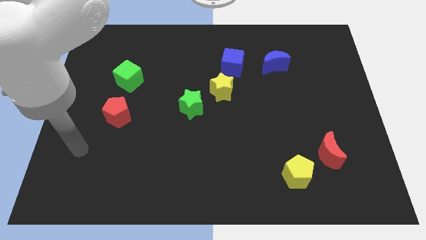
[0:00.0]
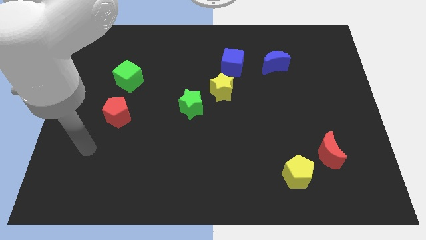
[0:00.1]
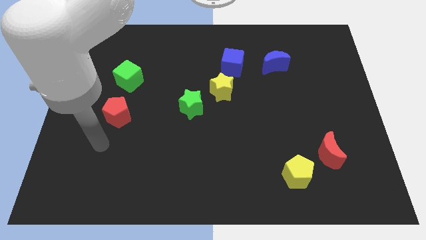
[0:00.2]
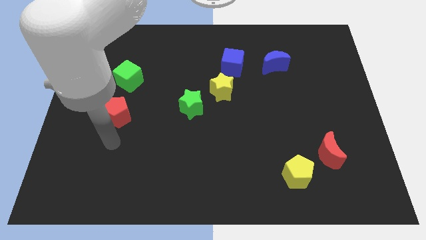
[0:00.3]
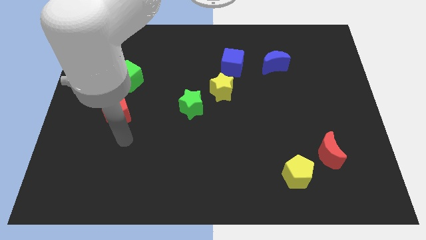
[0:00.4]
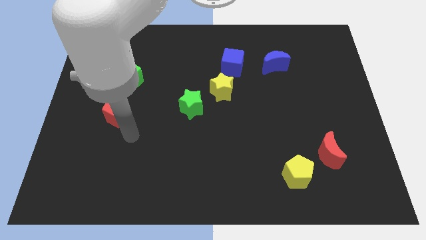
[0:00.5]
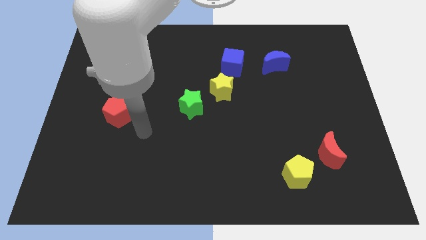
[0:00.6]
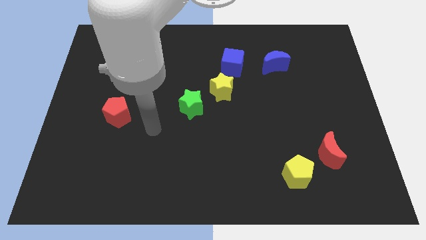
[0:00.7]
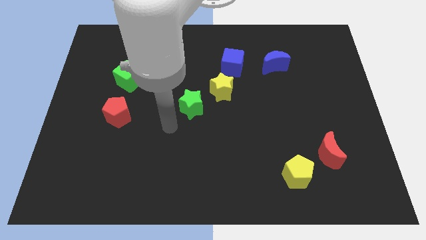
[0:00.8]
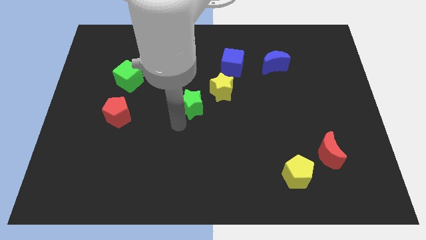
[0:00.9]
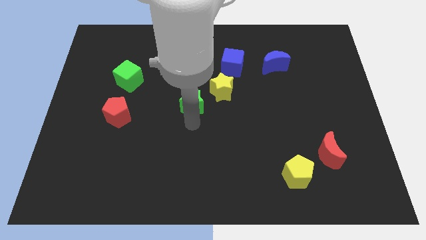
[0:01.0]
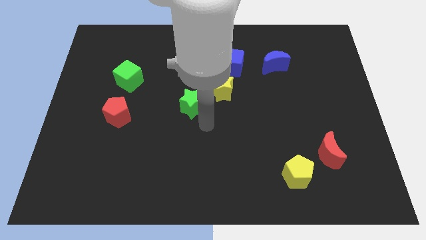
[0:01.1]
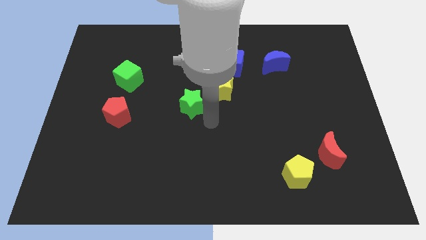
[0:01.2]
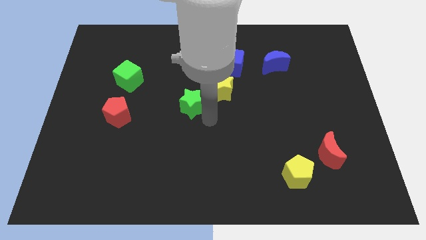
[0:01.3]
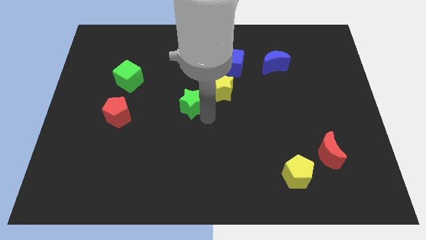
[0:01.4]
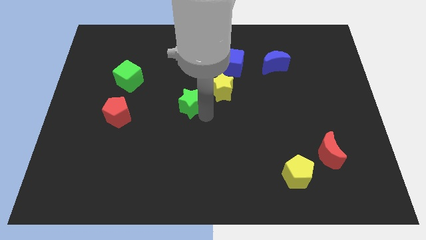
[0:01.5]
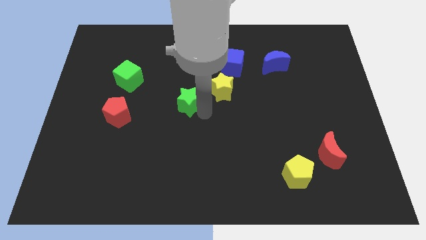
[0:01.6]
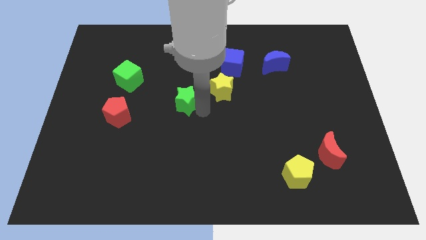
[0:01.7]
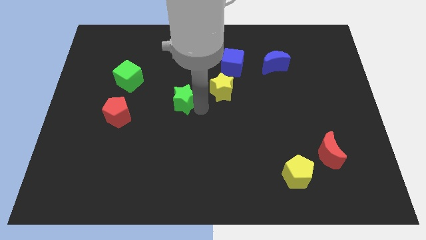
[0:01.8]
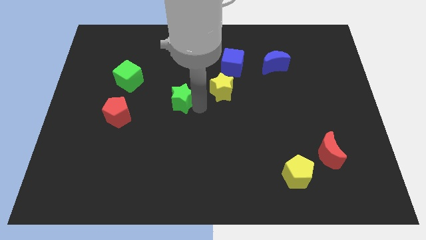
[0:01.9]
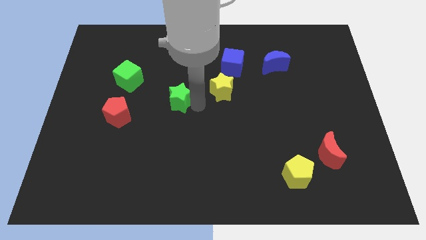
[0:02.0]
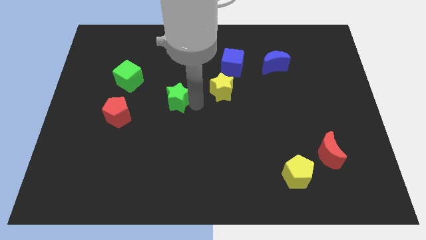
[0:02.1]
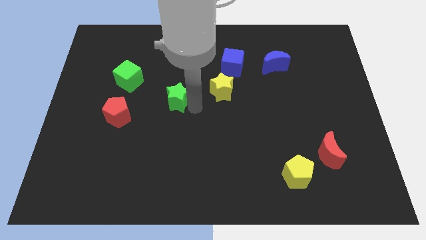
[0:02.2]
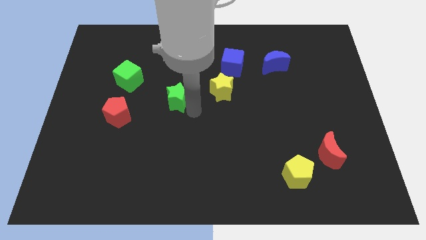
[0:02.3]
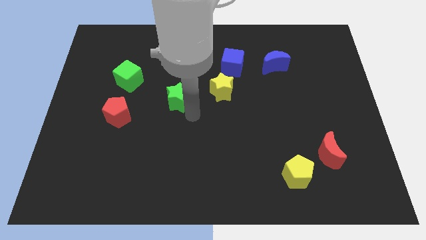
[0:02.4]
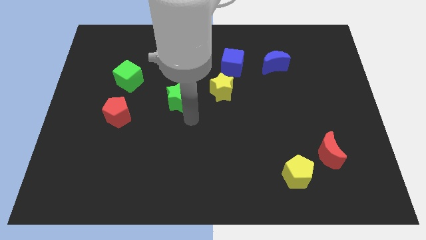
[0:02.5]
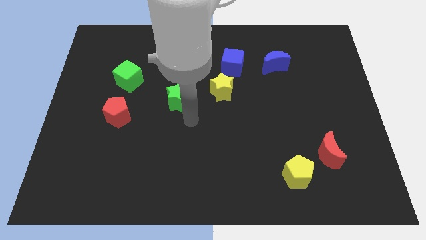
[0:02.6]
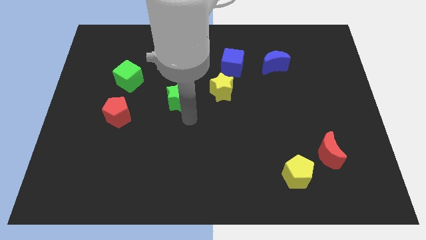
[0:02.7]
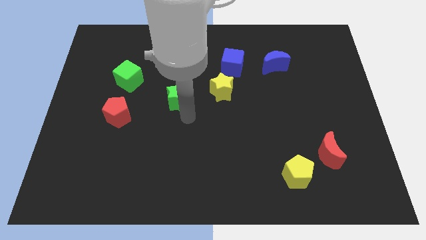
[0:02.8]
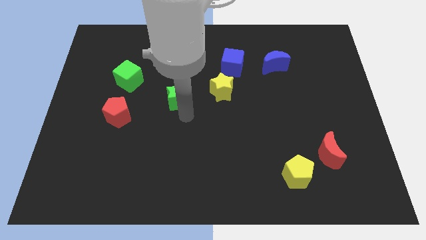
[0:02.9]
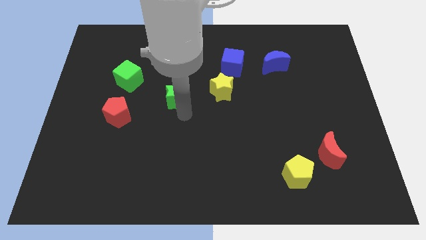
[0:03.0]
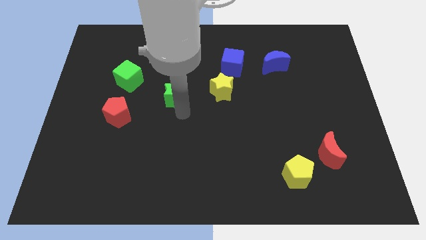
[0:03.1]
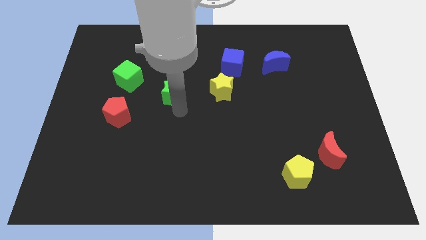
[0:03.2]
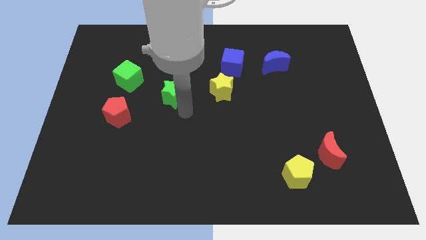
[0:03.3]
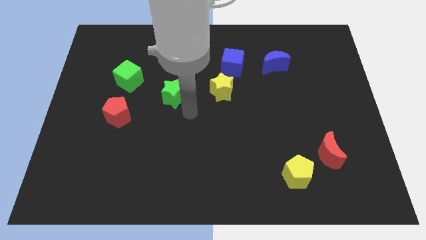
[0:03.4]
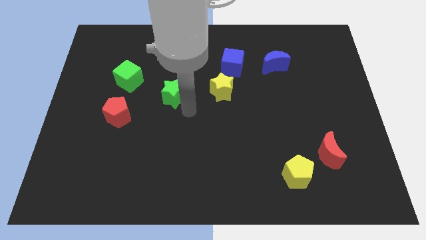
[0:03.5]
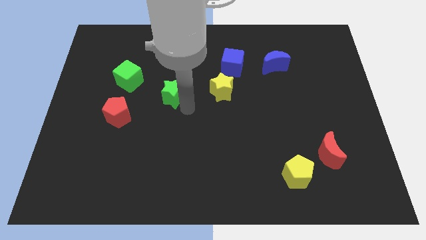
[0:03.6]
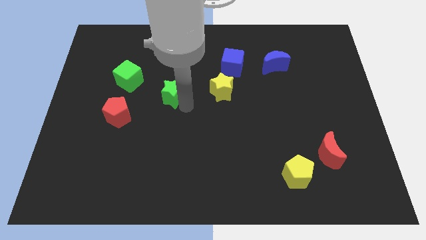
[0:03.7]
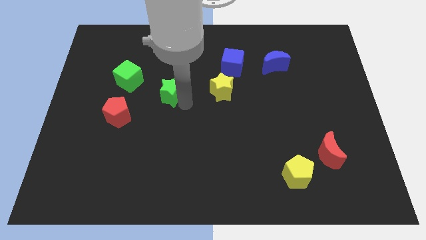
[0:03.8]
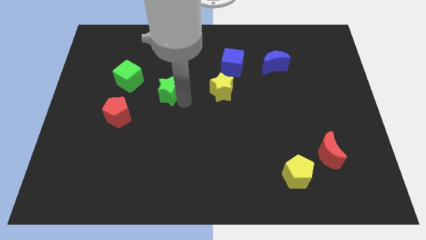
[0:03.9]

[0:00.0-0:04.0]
move the green star slightly up and left

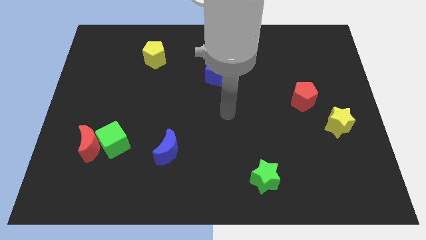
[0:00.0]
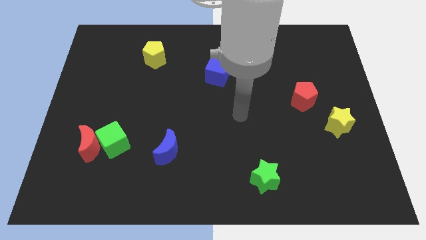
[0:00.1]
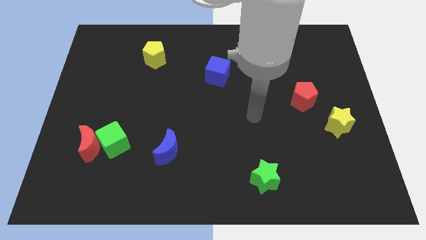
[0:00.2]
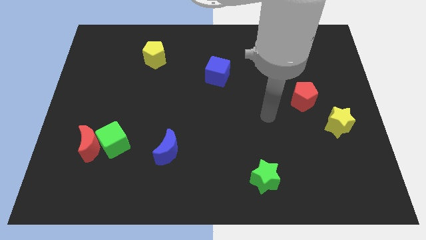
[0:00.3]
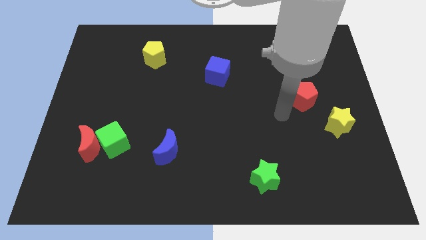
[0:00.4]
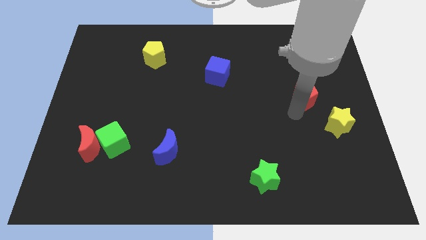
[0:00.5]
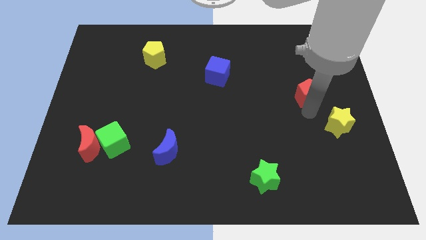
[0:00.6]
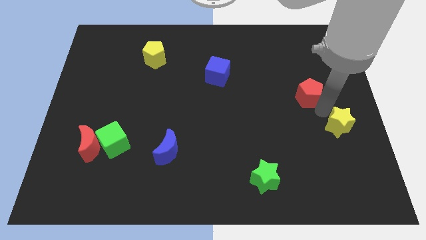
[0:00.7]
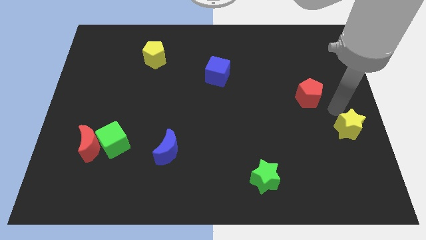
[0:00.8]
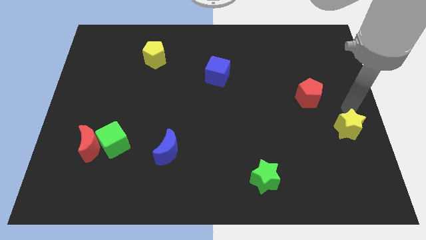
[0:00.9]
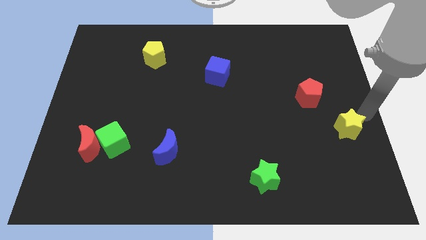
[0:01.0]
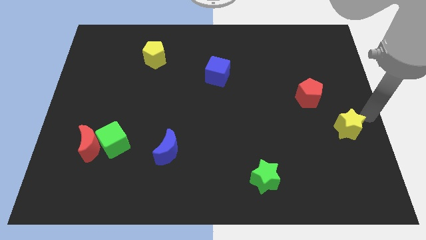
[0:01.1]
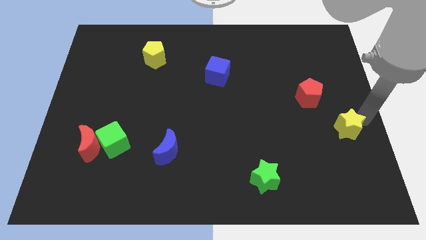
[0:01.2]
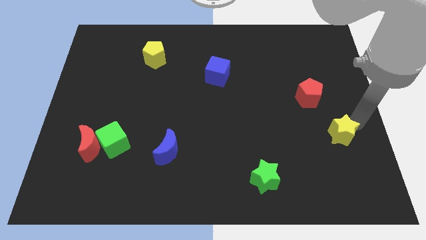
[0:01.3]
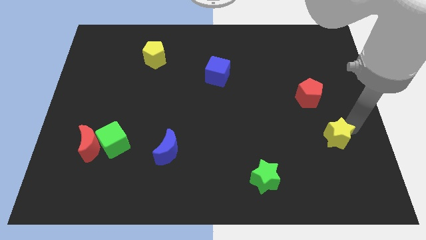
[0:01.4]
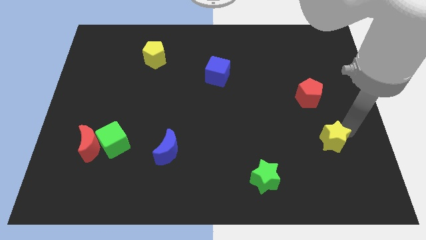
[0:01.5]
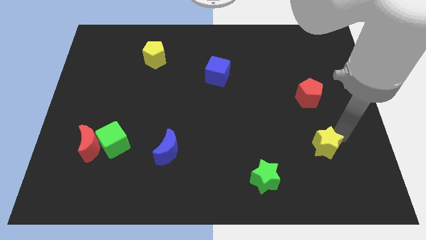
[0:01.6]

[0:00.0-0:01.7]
slide the yellow star down and left diagonally a bit

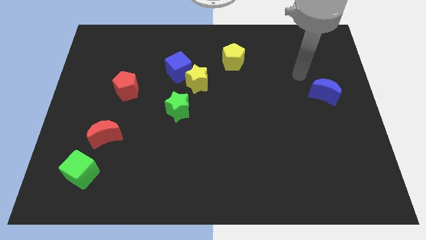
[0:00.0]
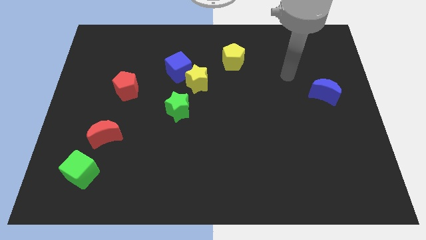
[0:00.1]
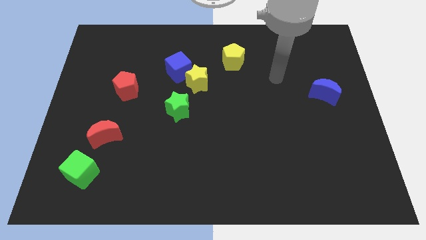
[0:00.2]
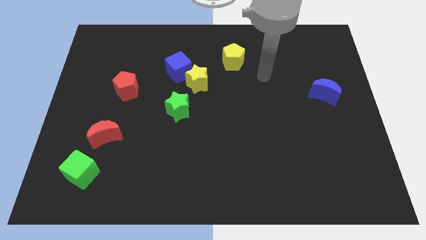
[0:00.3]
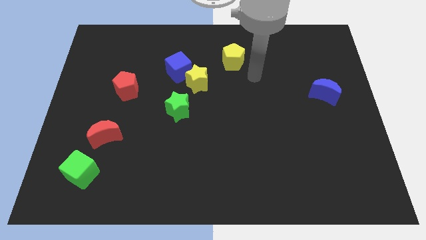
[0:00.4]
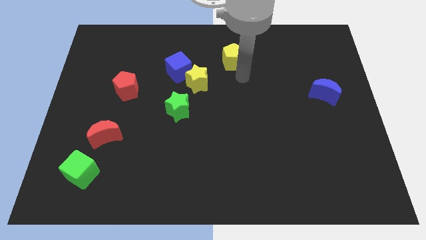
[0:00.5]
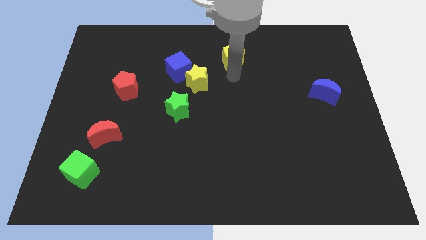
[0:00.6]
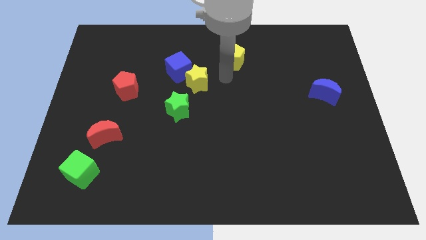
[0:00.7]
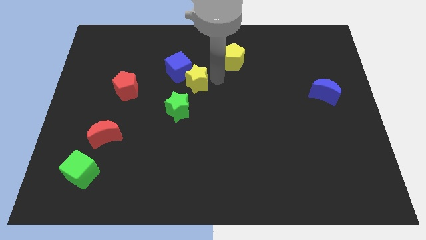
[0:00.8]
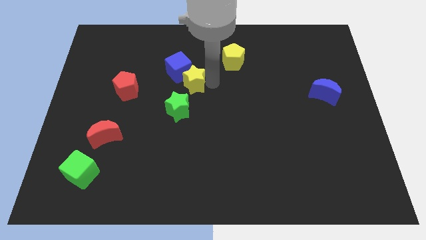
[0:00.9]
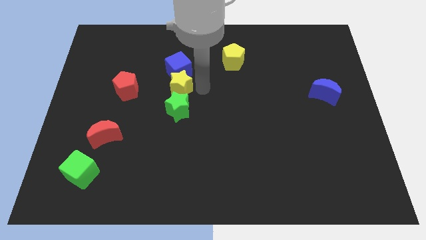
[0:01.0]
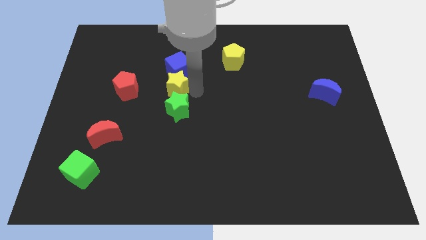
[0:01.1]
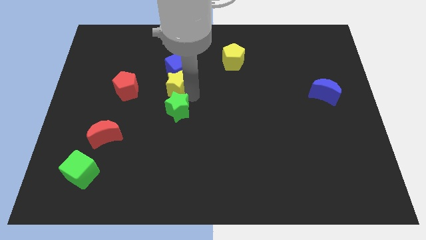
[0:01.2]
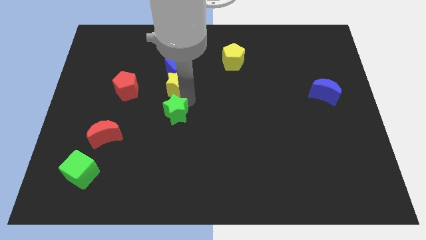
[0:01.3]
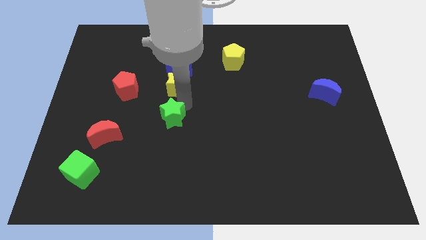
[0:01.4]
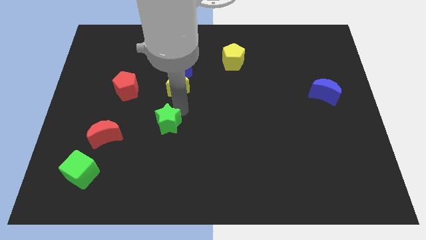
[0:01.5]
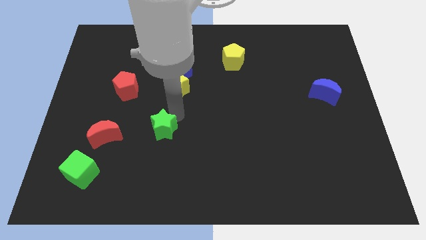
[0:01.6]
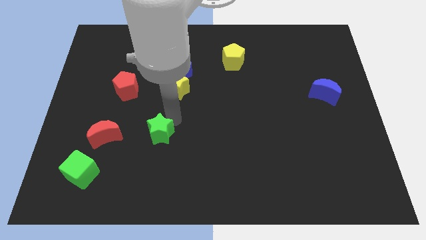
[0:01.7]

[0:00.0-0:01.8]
slightly move the green star diagonally down and to the left

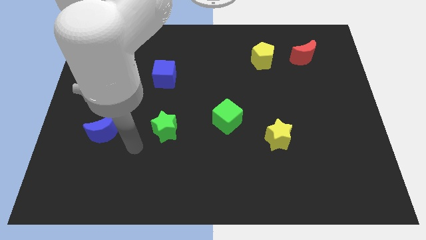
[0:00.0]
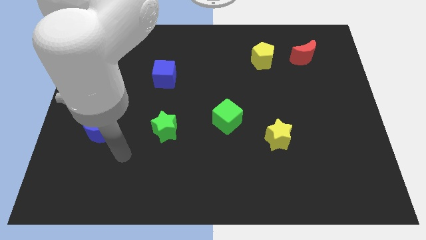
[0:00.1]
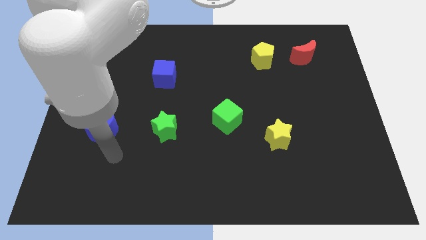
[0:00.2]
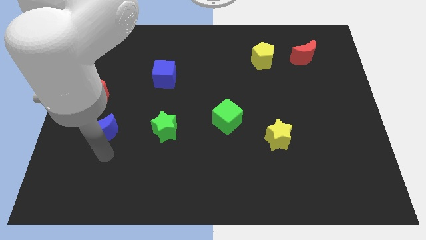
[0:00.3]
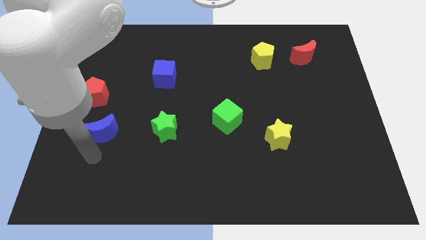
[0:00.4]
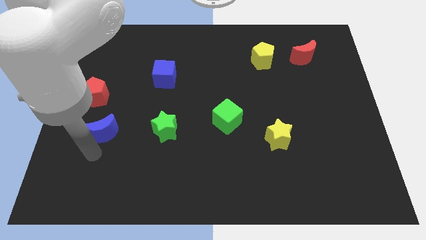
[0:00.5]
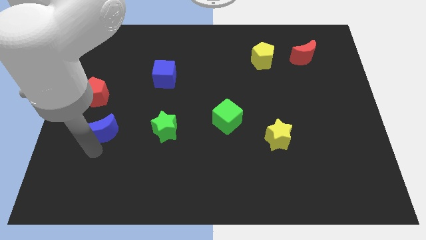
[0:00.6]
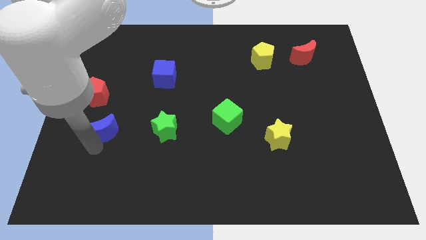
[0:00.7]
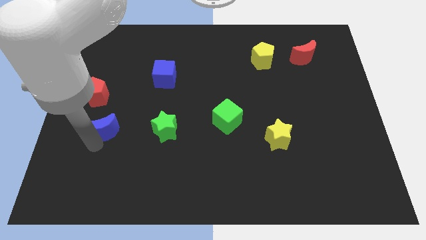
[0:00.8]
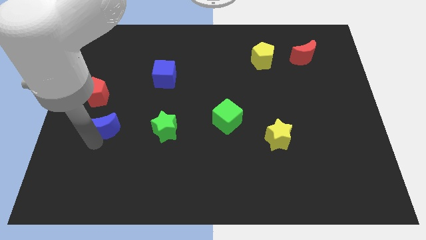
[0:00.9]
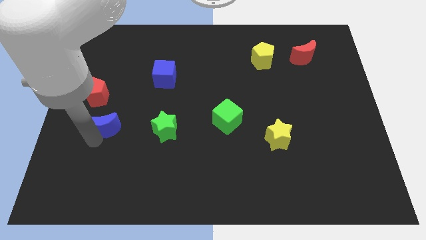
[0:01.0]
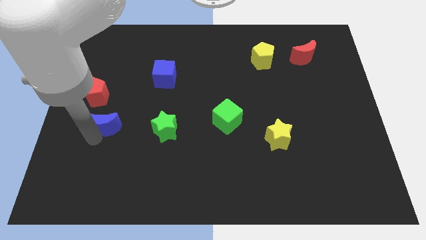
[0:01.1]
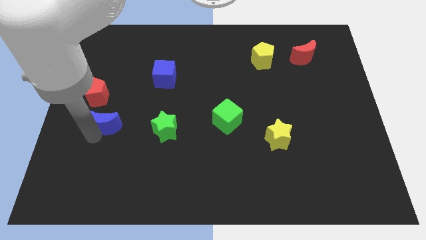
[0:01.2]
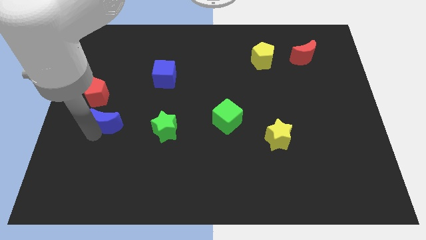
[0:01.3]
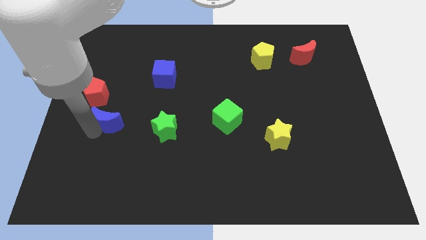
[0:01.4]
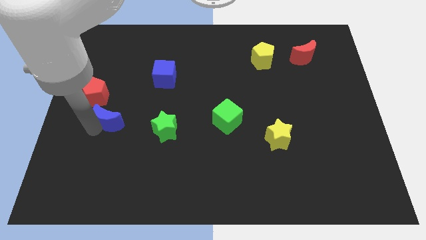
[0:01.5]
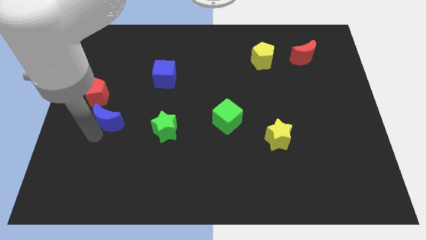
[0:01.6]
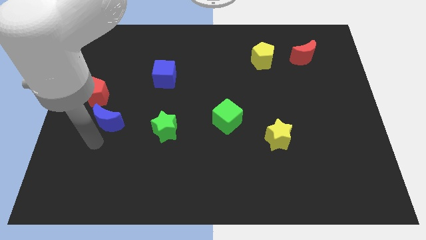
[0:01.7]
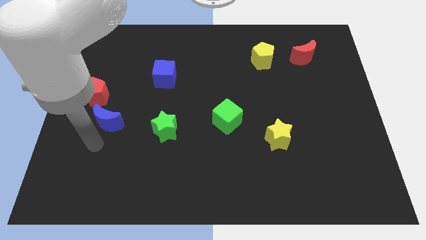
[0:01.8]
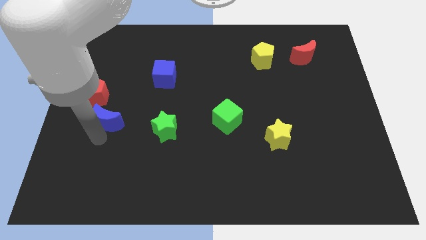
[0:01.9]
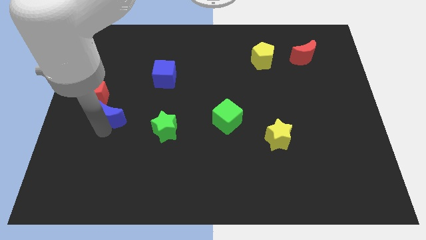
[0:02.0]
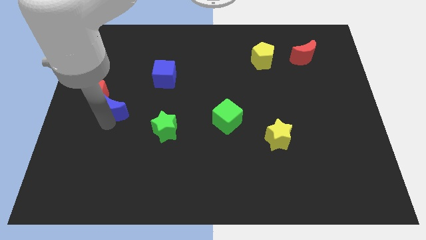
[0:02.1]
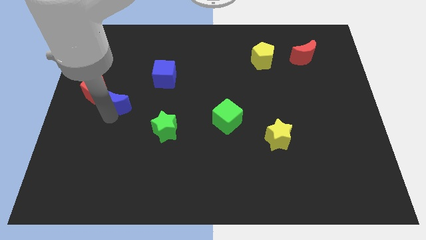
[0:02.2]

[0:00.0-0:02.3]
slightly push the blue moon upwards
